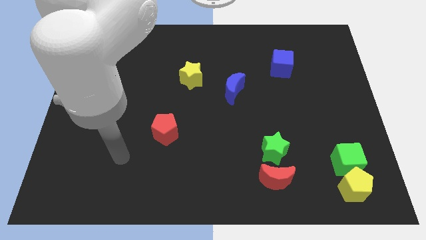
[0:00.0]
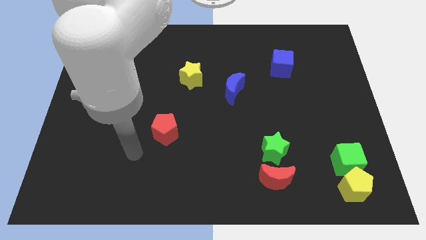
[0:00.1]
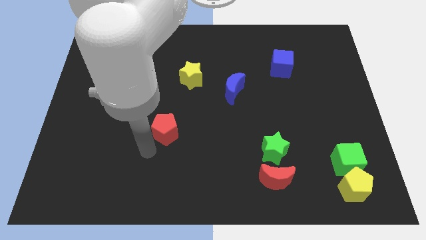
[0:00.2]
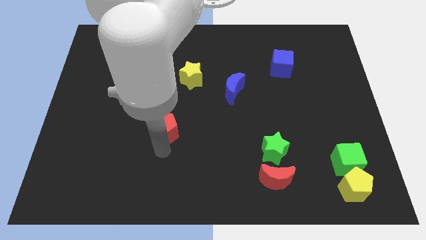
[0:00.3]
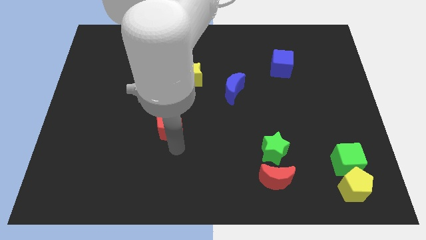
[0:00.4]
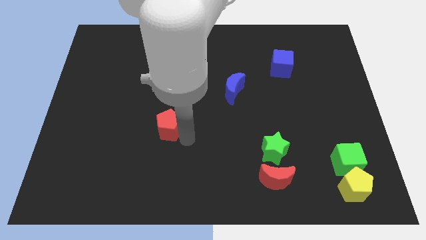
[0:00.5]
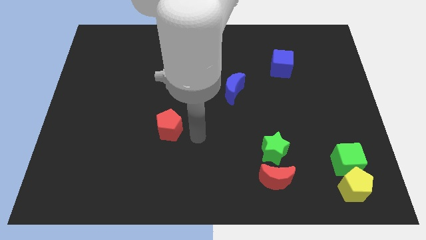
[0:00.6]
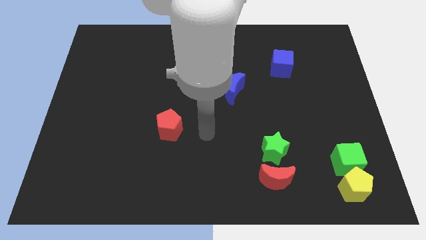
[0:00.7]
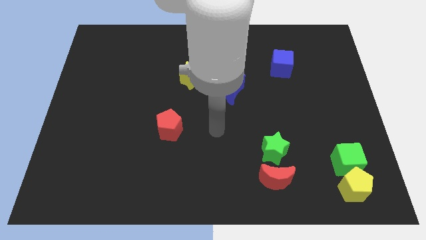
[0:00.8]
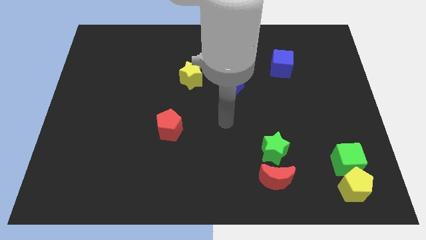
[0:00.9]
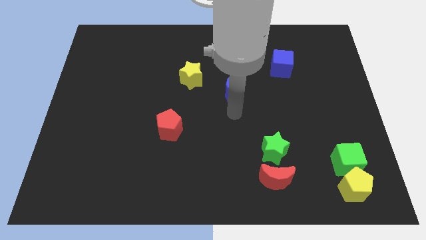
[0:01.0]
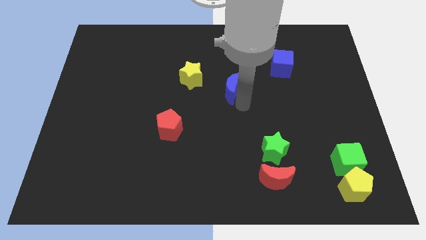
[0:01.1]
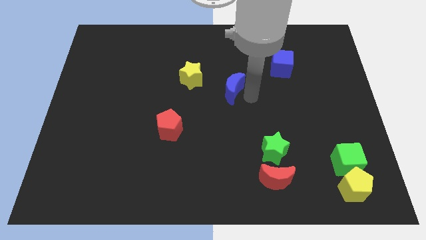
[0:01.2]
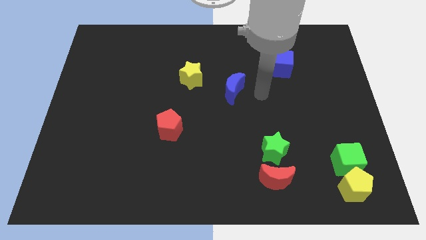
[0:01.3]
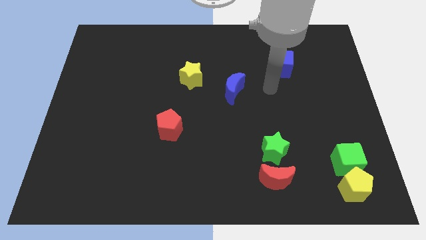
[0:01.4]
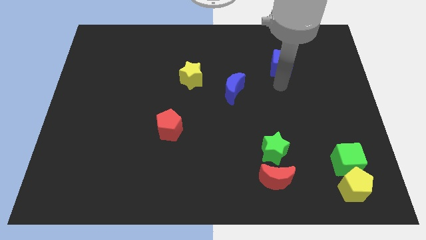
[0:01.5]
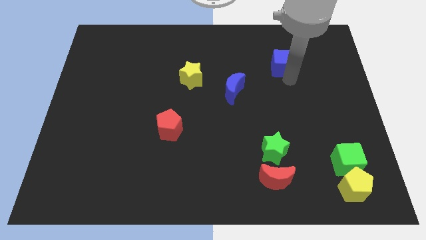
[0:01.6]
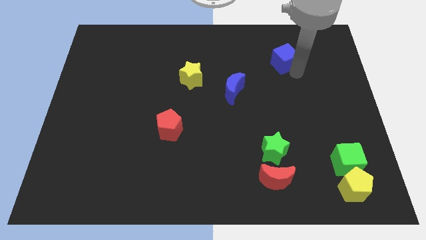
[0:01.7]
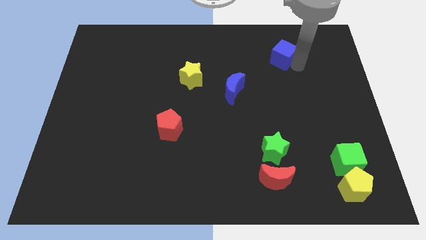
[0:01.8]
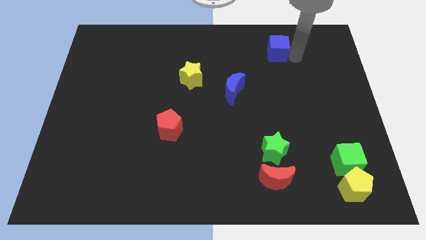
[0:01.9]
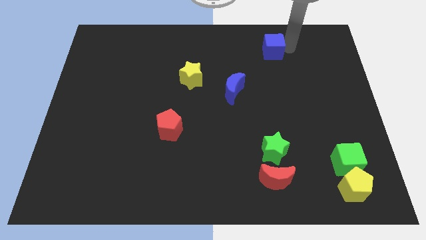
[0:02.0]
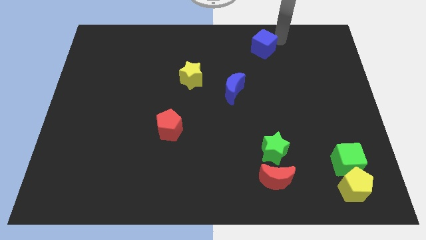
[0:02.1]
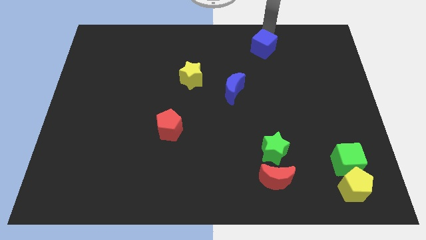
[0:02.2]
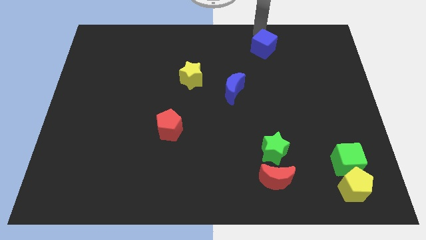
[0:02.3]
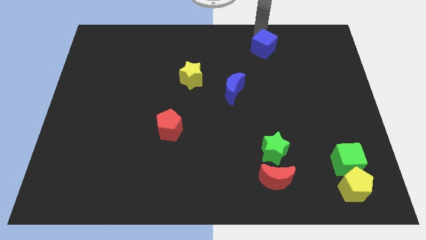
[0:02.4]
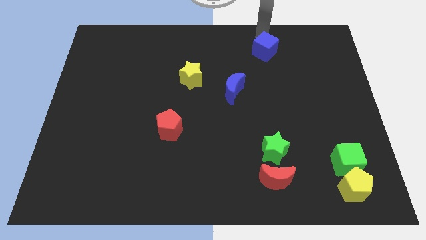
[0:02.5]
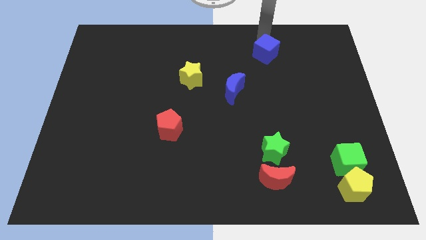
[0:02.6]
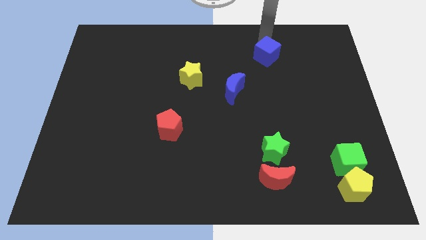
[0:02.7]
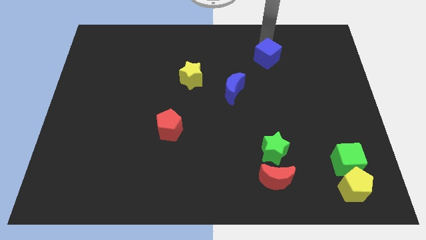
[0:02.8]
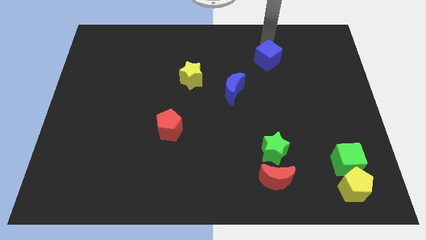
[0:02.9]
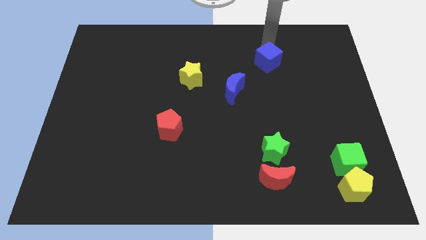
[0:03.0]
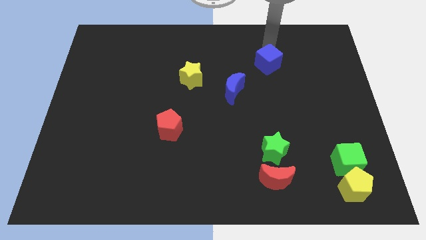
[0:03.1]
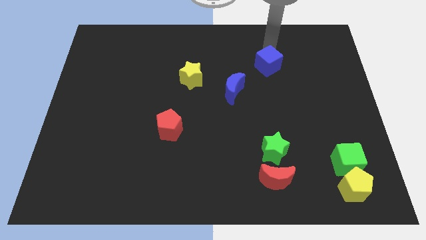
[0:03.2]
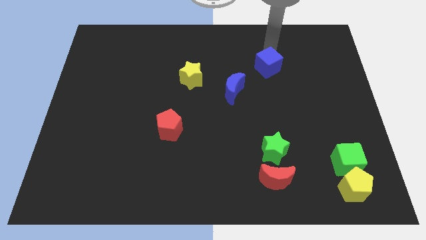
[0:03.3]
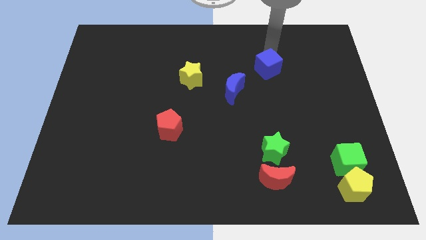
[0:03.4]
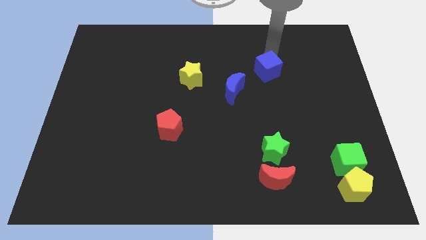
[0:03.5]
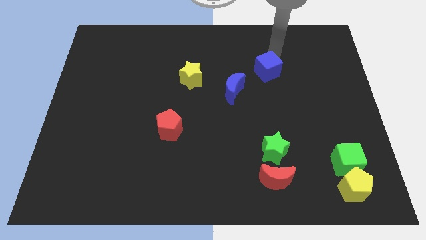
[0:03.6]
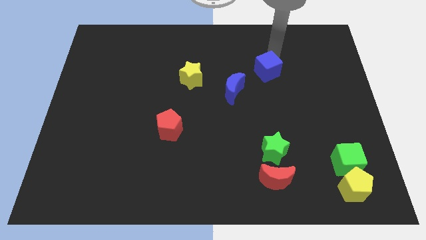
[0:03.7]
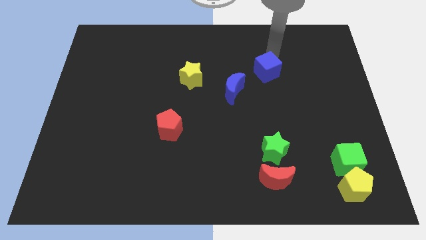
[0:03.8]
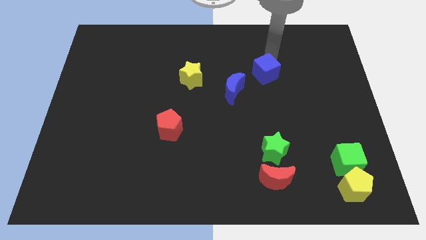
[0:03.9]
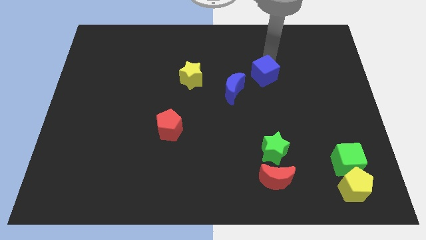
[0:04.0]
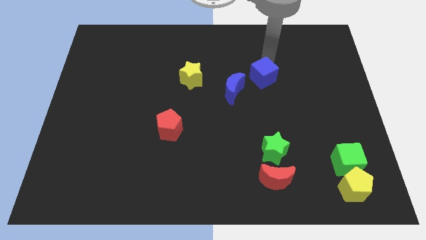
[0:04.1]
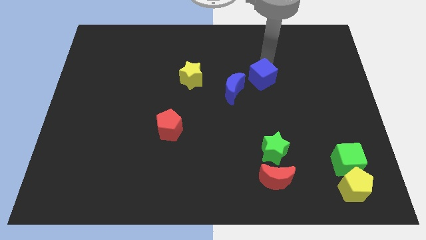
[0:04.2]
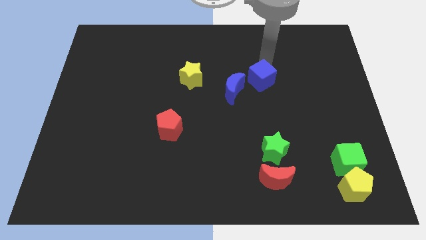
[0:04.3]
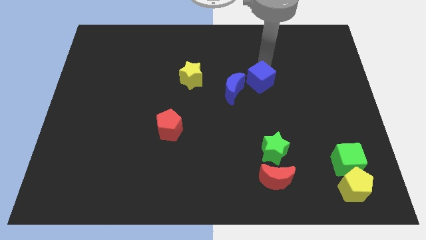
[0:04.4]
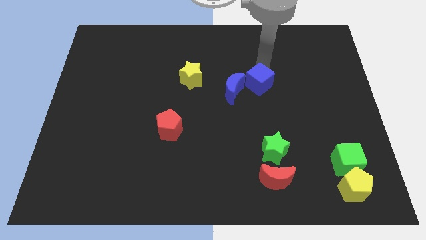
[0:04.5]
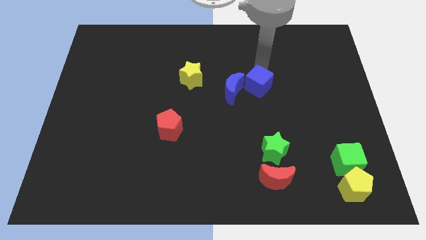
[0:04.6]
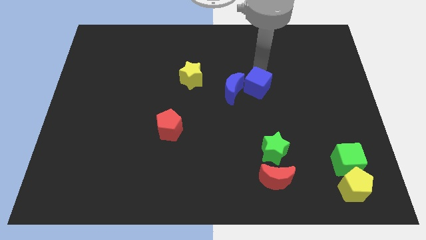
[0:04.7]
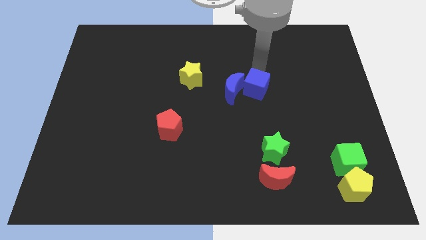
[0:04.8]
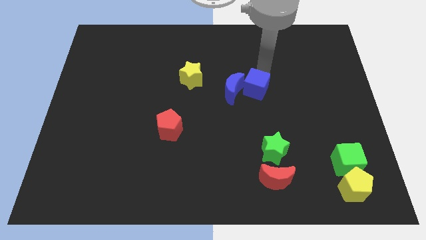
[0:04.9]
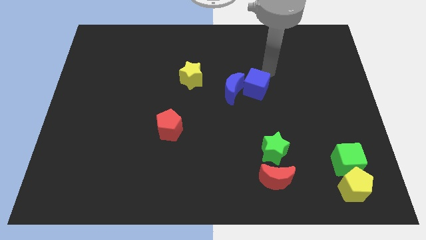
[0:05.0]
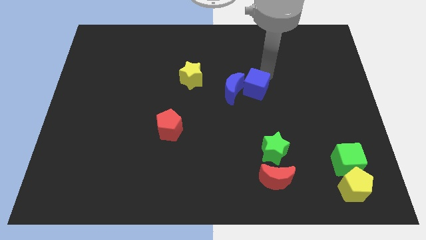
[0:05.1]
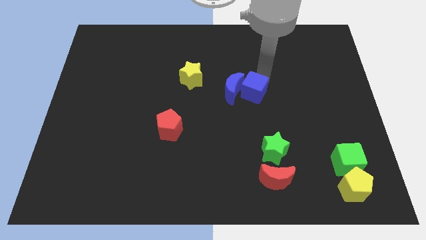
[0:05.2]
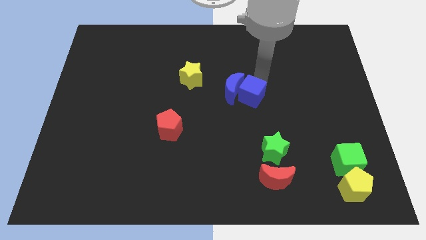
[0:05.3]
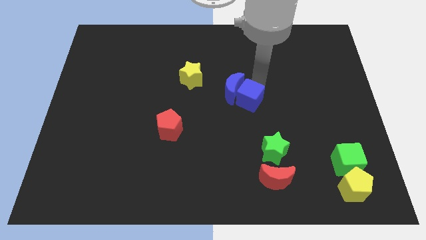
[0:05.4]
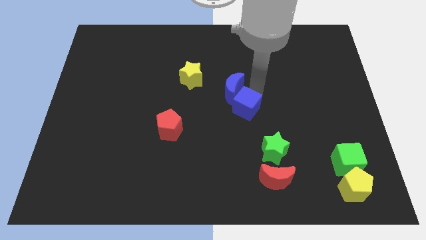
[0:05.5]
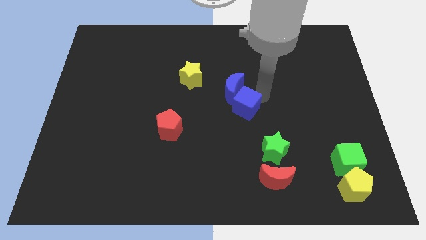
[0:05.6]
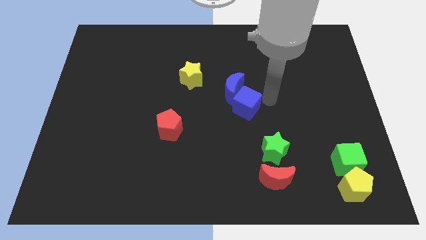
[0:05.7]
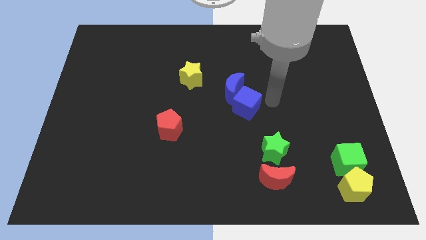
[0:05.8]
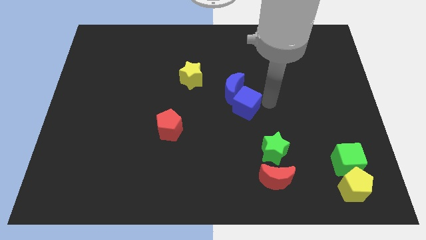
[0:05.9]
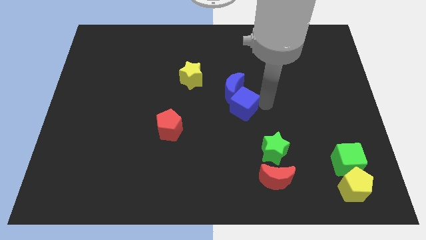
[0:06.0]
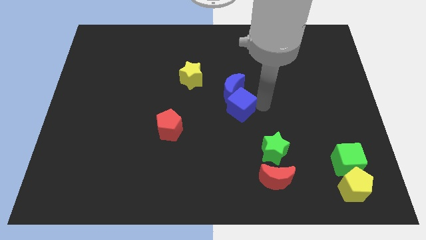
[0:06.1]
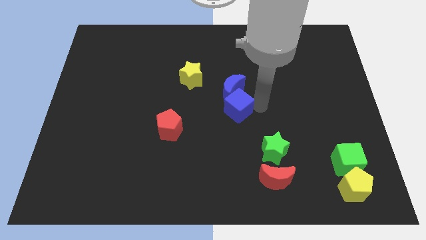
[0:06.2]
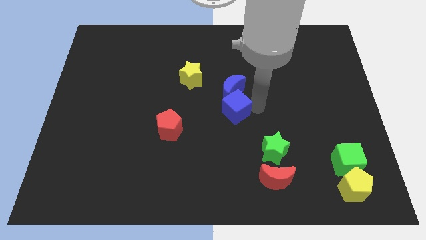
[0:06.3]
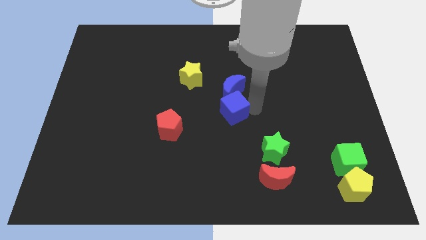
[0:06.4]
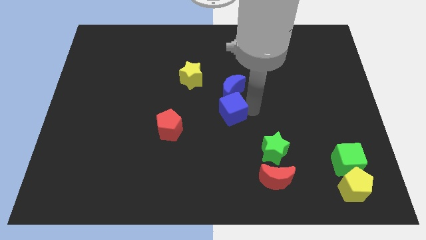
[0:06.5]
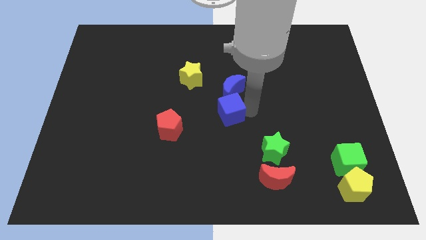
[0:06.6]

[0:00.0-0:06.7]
push the blue cube downwards and to the left

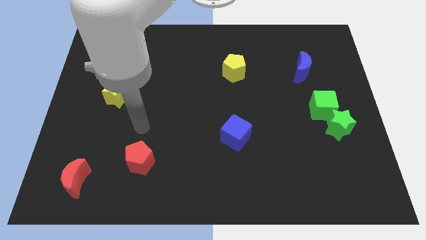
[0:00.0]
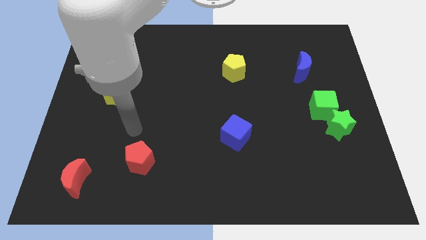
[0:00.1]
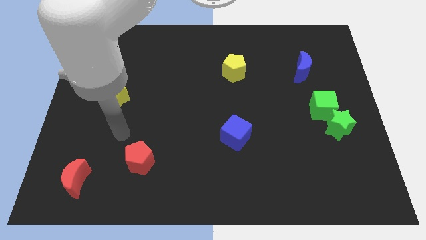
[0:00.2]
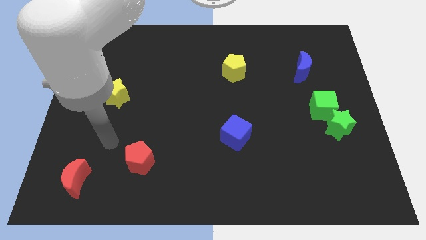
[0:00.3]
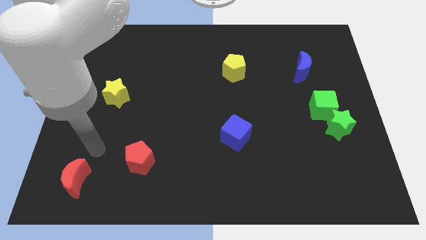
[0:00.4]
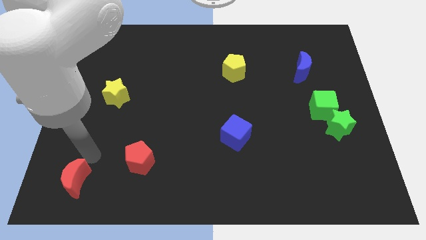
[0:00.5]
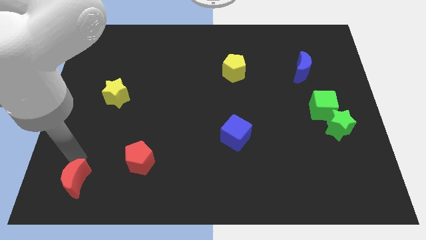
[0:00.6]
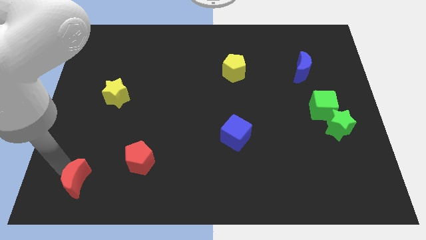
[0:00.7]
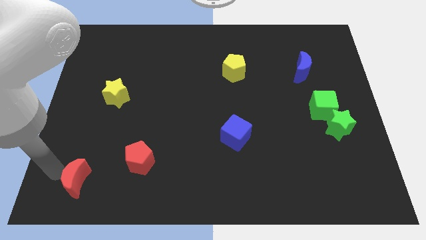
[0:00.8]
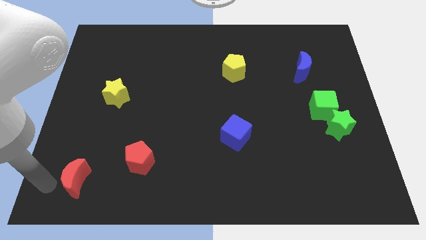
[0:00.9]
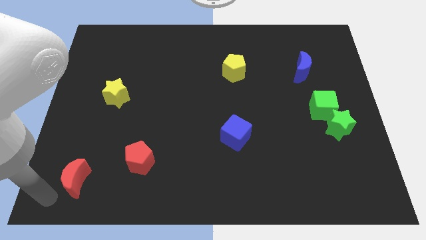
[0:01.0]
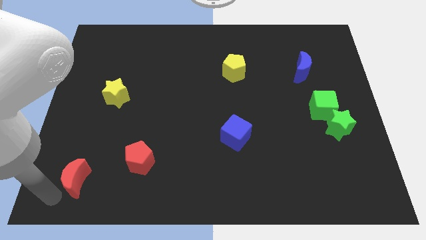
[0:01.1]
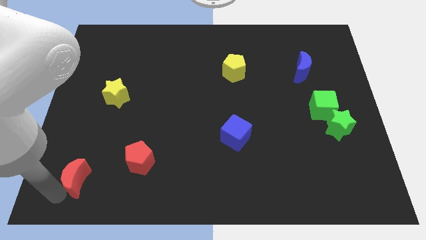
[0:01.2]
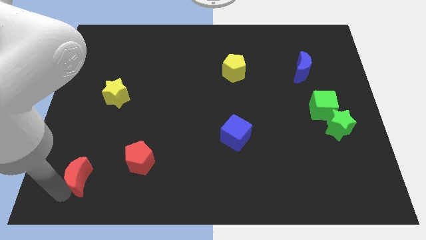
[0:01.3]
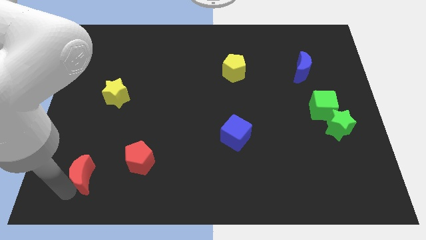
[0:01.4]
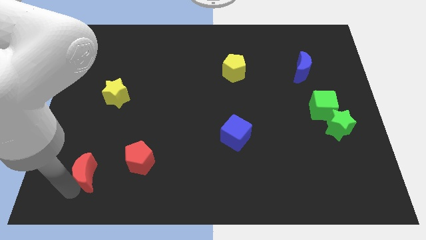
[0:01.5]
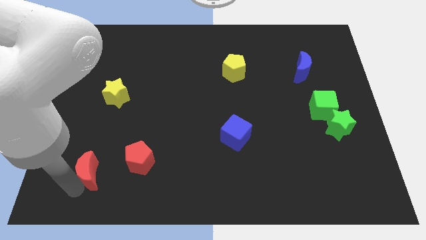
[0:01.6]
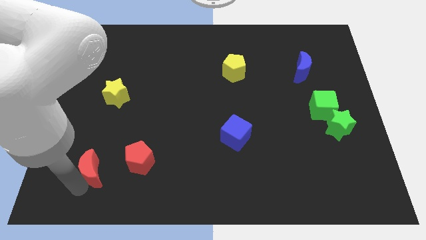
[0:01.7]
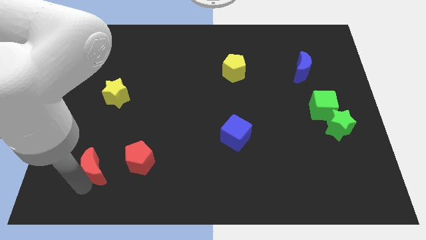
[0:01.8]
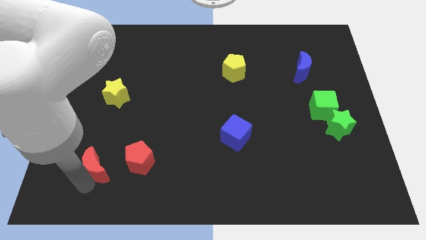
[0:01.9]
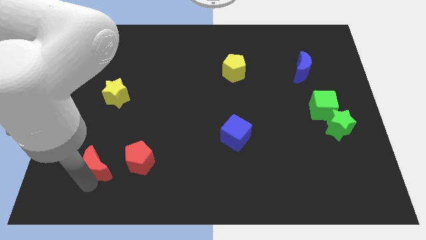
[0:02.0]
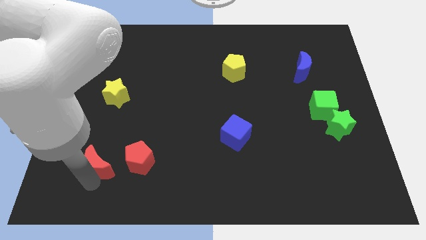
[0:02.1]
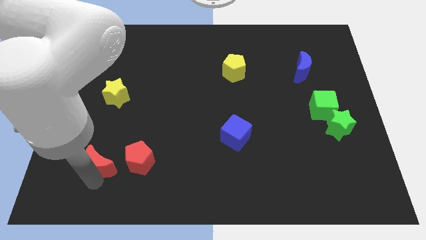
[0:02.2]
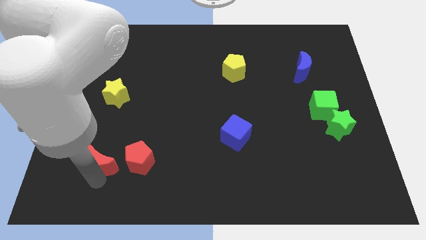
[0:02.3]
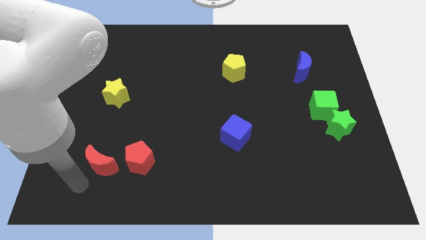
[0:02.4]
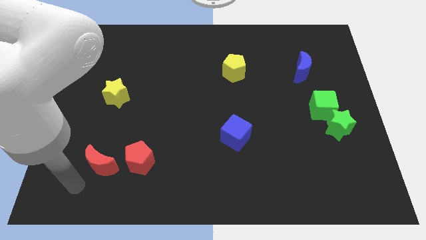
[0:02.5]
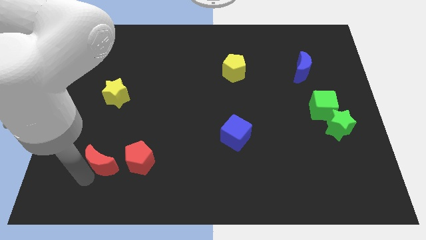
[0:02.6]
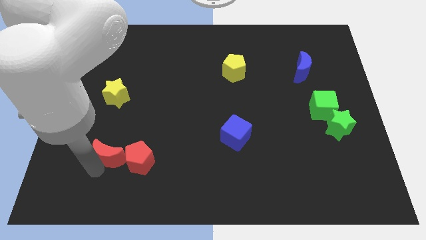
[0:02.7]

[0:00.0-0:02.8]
slightly slide the red moon upwards and right diagonally
